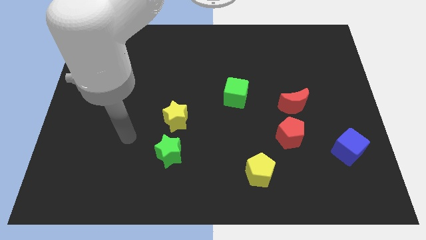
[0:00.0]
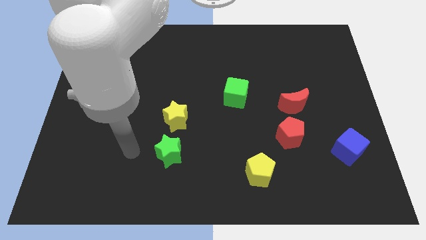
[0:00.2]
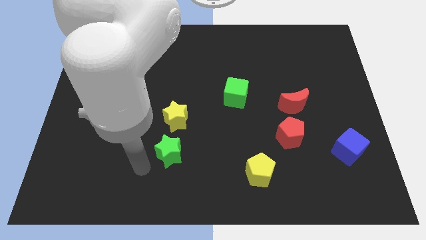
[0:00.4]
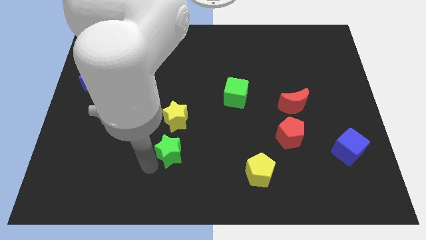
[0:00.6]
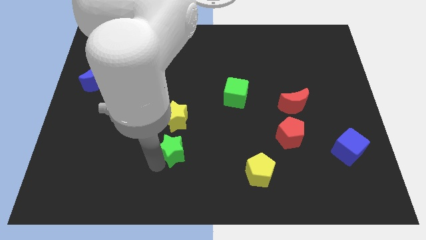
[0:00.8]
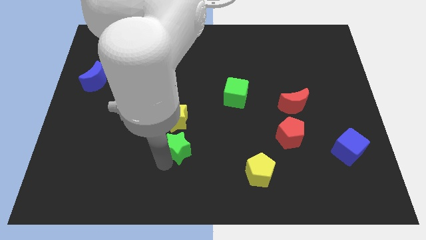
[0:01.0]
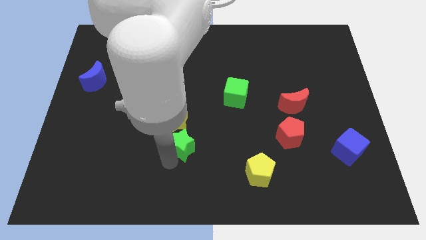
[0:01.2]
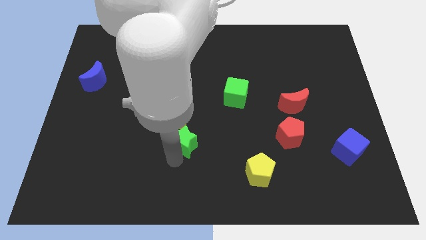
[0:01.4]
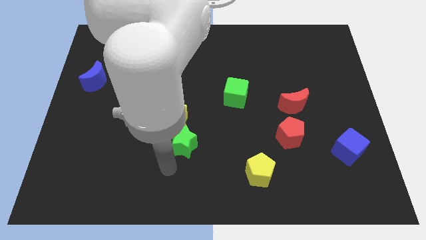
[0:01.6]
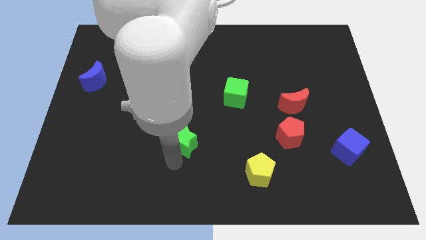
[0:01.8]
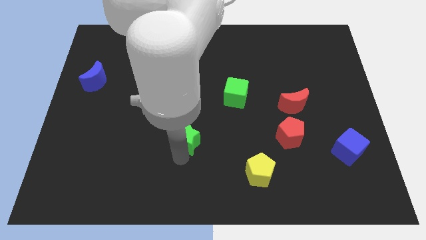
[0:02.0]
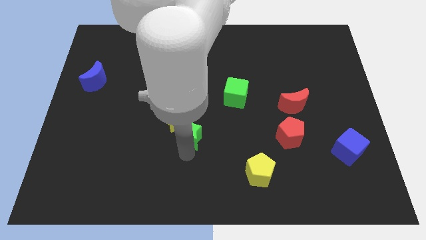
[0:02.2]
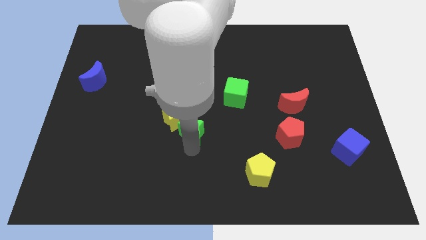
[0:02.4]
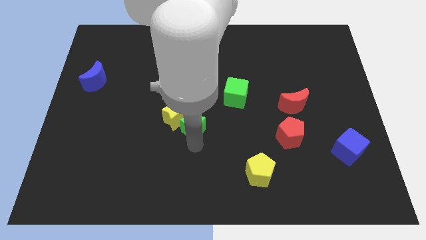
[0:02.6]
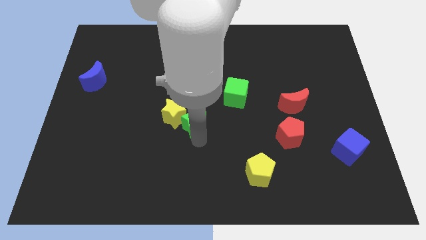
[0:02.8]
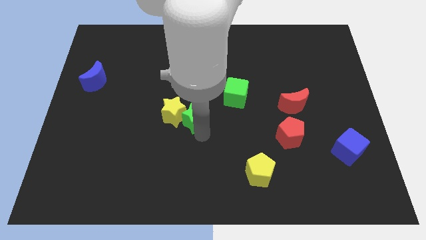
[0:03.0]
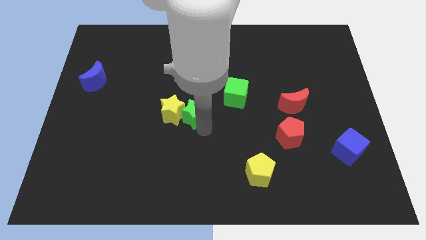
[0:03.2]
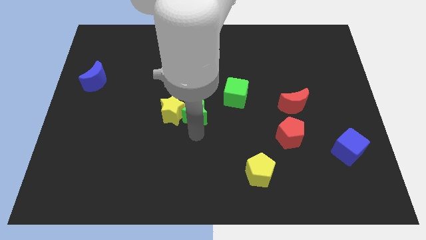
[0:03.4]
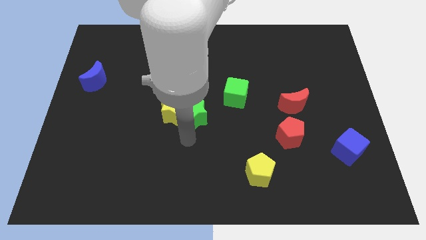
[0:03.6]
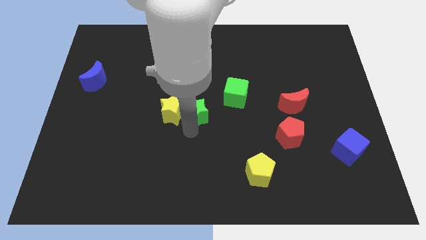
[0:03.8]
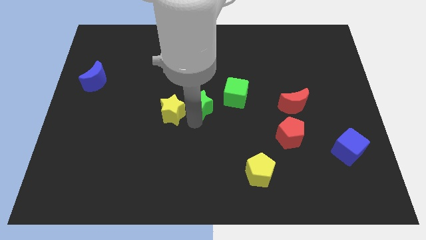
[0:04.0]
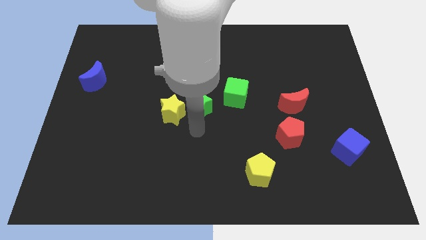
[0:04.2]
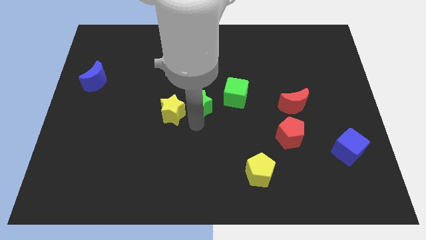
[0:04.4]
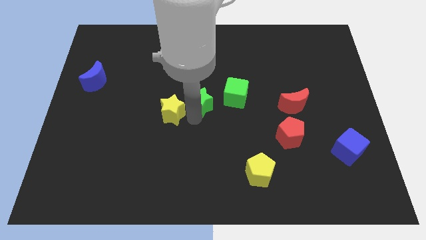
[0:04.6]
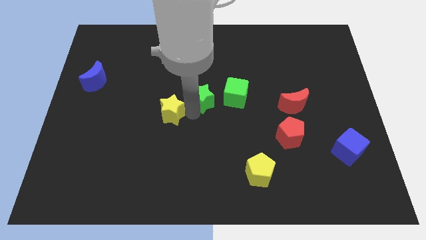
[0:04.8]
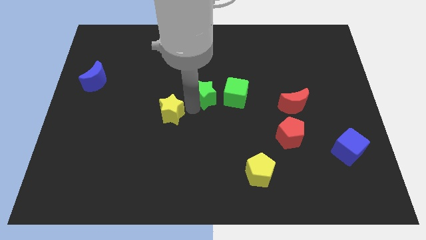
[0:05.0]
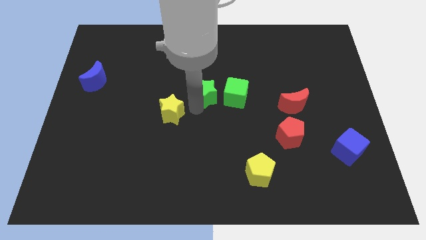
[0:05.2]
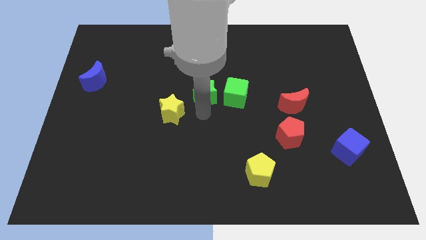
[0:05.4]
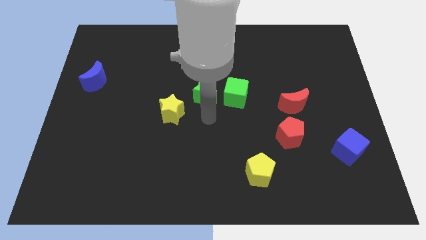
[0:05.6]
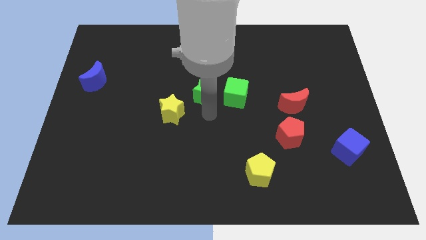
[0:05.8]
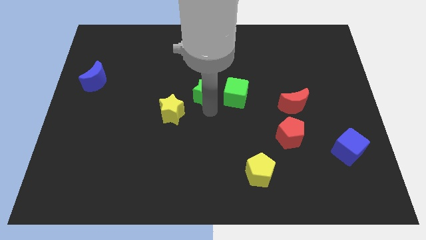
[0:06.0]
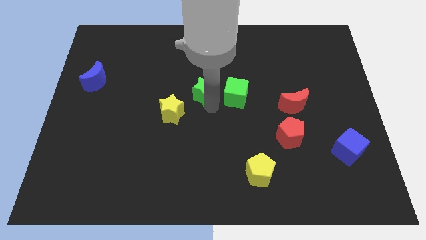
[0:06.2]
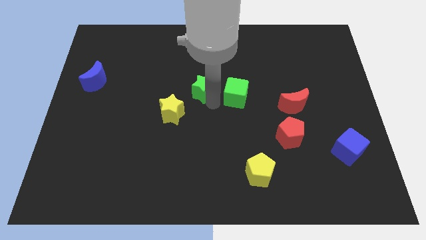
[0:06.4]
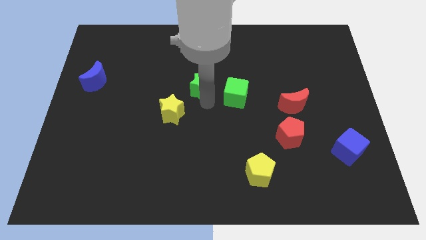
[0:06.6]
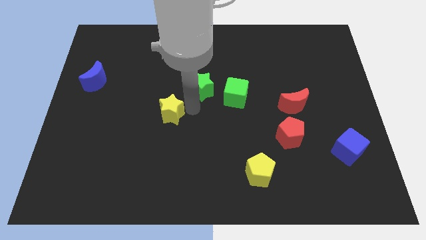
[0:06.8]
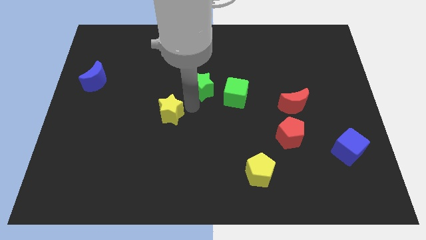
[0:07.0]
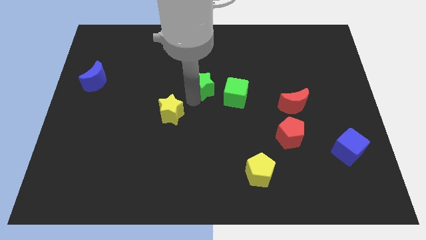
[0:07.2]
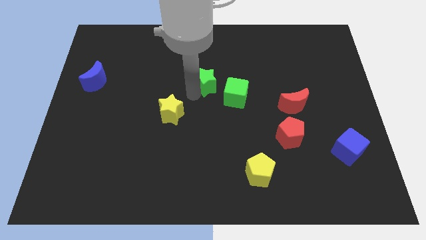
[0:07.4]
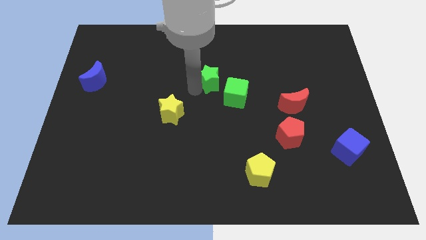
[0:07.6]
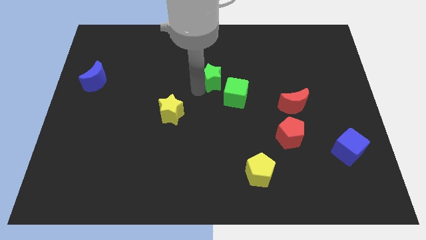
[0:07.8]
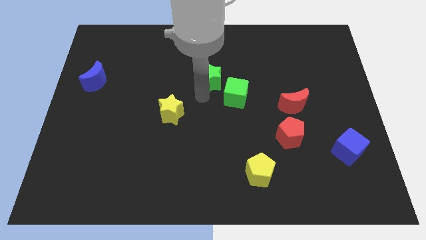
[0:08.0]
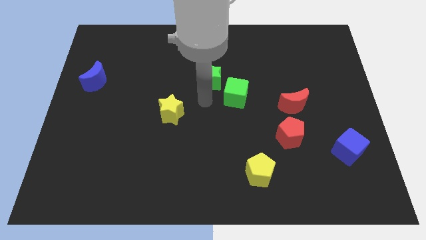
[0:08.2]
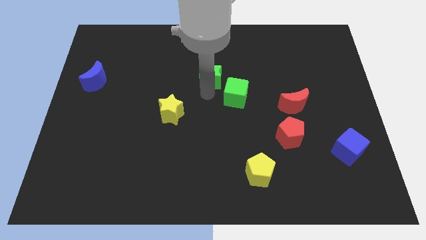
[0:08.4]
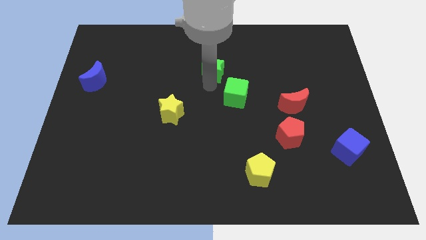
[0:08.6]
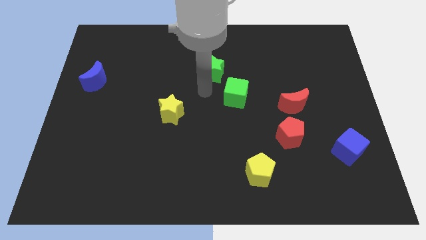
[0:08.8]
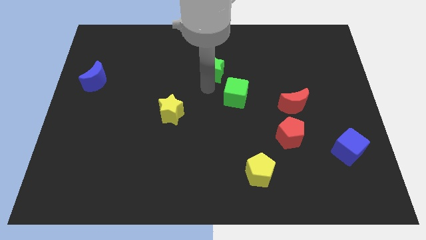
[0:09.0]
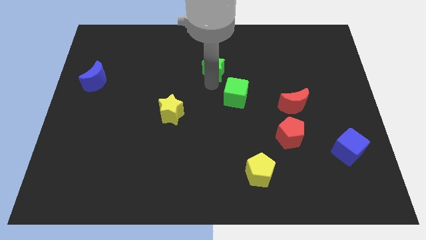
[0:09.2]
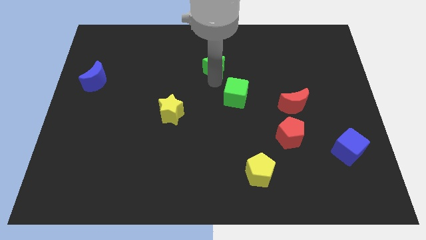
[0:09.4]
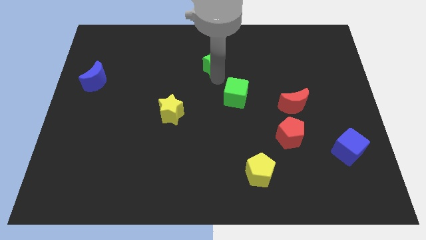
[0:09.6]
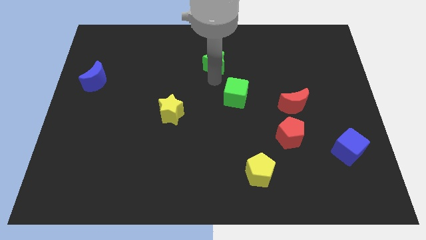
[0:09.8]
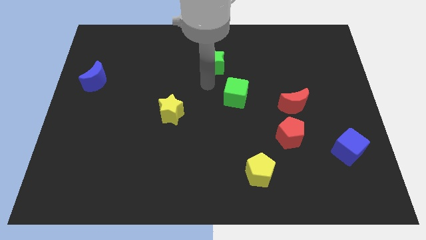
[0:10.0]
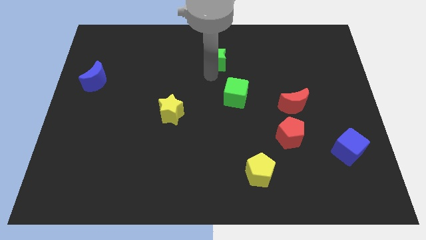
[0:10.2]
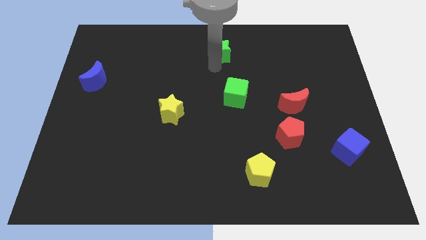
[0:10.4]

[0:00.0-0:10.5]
move the green star to the top

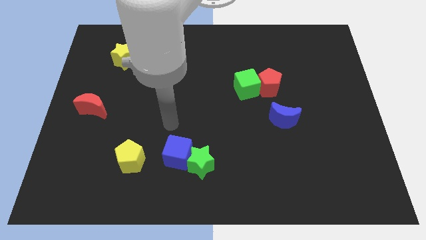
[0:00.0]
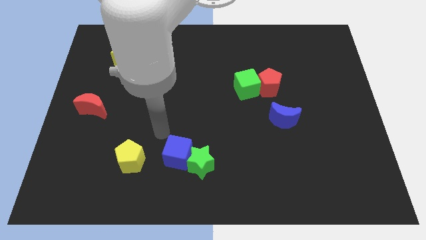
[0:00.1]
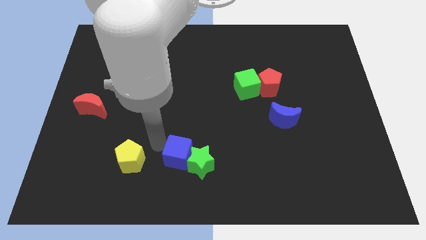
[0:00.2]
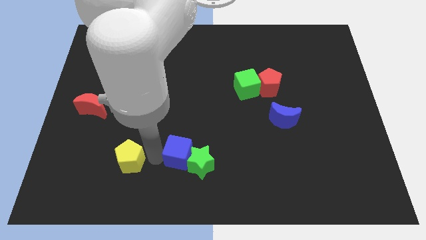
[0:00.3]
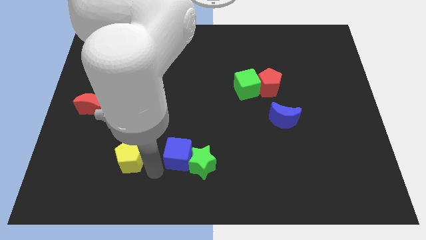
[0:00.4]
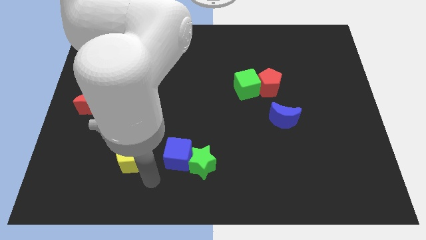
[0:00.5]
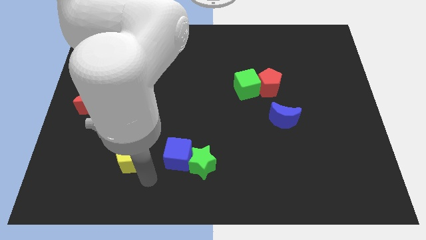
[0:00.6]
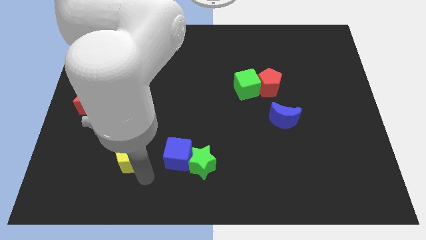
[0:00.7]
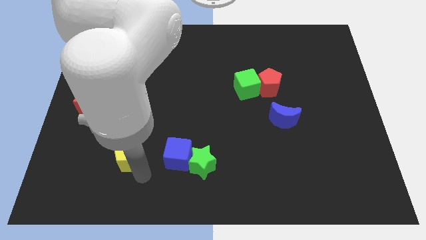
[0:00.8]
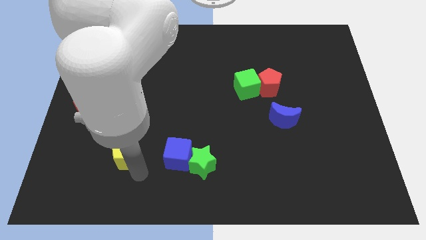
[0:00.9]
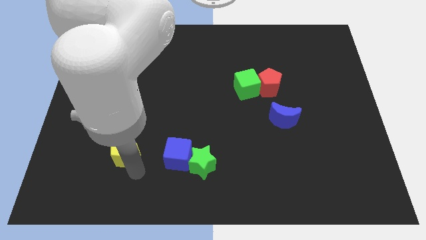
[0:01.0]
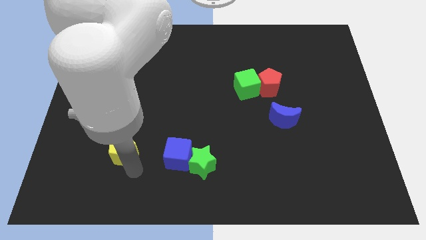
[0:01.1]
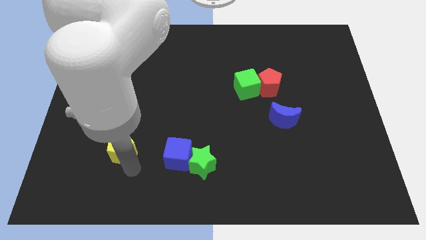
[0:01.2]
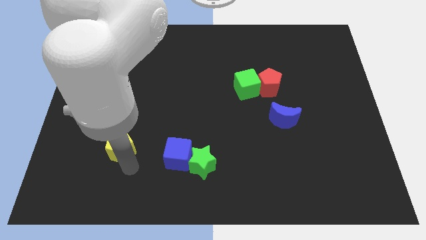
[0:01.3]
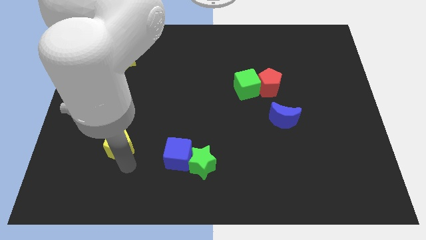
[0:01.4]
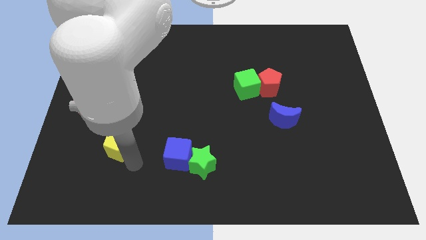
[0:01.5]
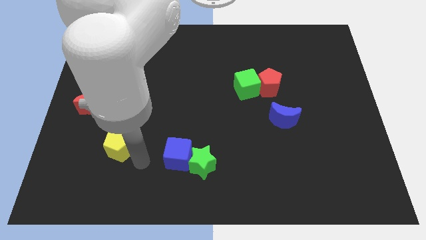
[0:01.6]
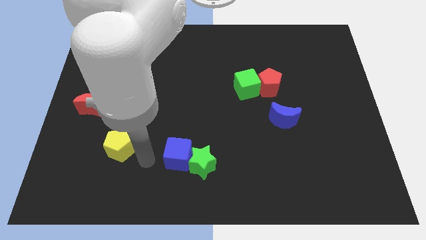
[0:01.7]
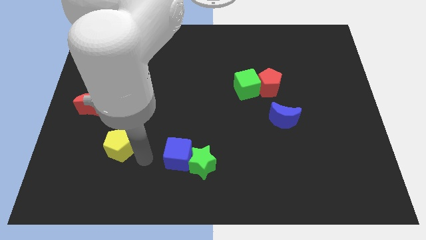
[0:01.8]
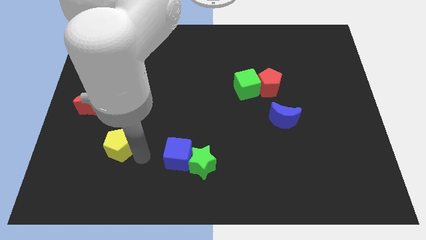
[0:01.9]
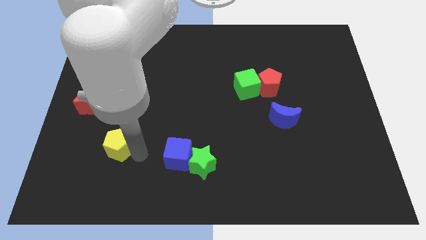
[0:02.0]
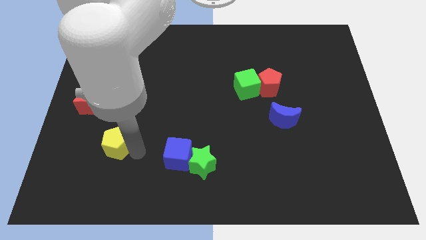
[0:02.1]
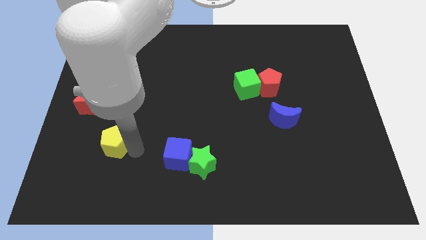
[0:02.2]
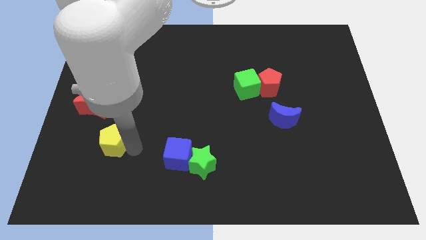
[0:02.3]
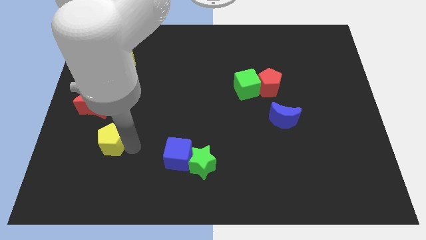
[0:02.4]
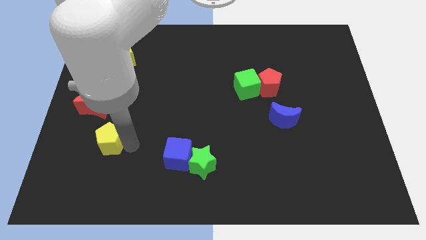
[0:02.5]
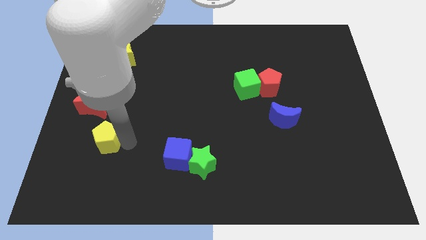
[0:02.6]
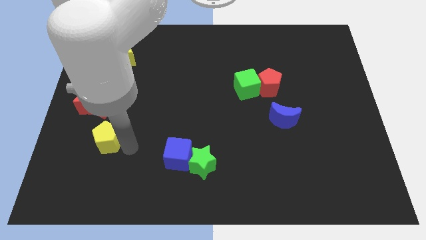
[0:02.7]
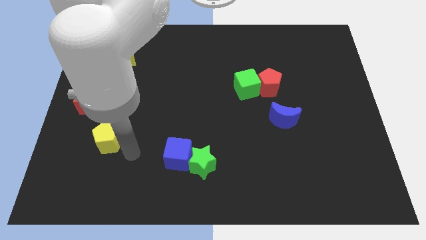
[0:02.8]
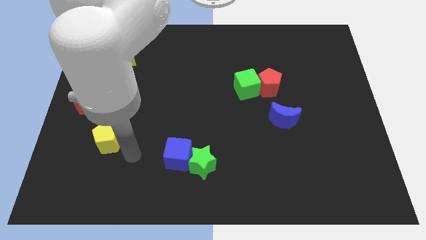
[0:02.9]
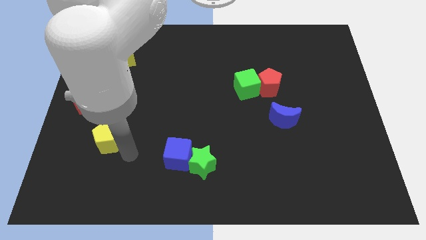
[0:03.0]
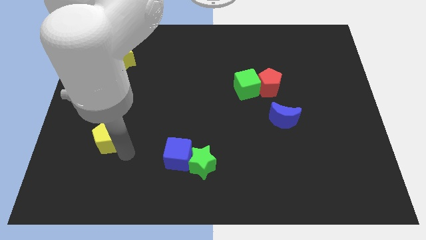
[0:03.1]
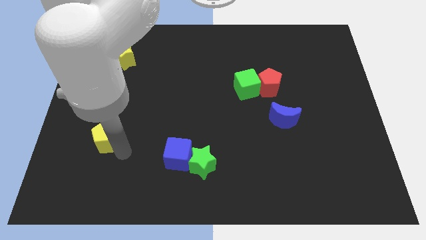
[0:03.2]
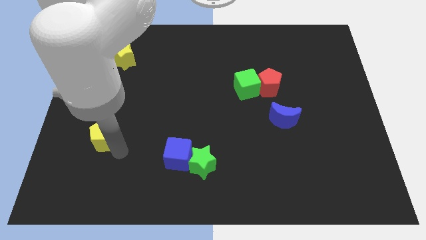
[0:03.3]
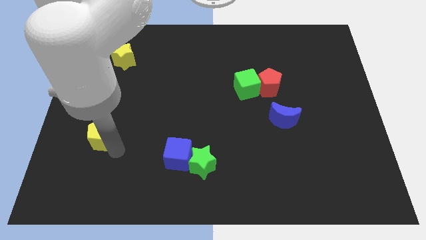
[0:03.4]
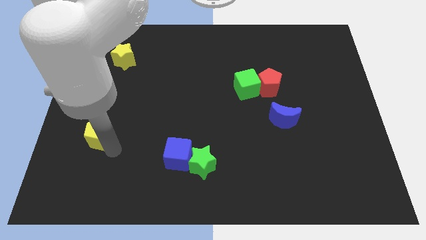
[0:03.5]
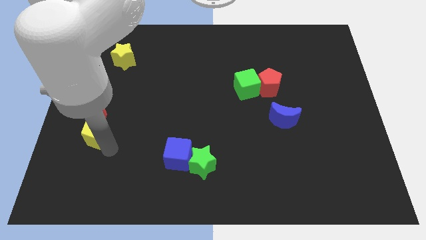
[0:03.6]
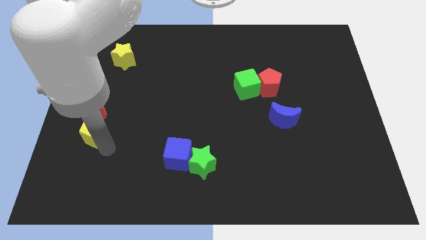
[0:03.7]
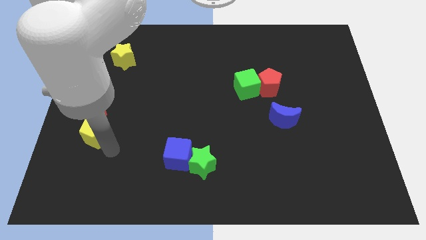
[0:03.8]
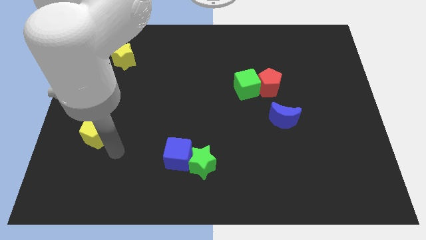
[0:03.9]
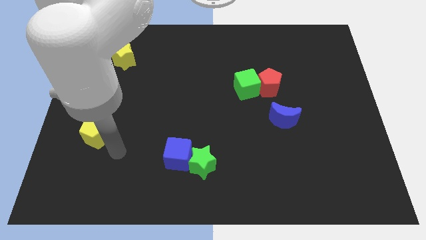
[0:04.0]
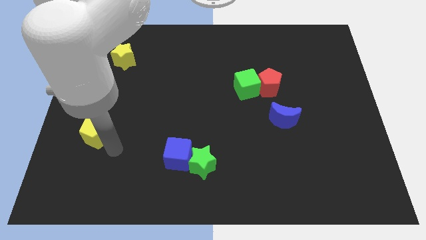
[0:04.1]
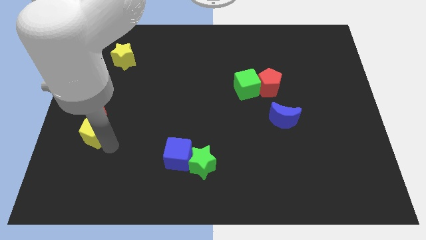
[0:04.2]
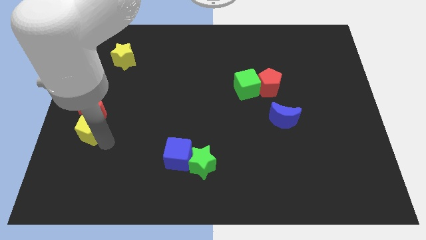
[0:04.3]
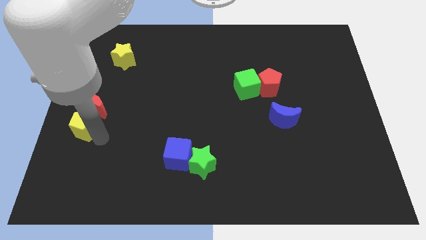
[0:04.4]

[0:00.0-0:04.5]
move the yellow pentagon to the left side
